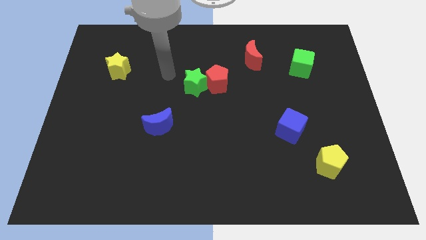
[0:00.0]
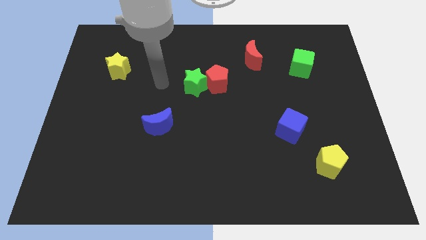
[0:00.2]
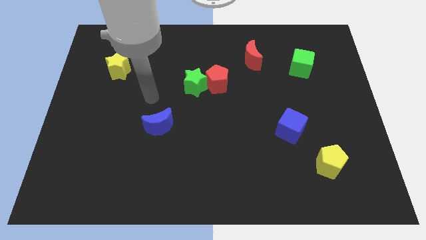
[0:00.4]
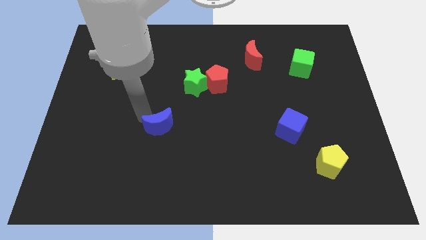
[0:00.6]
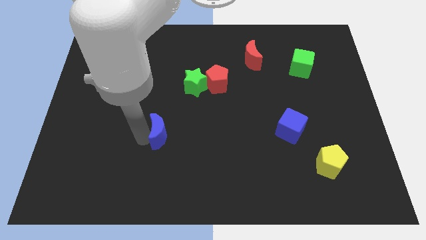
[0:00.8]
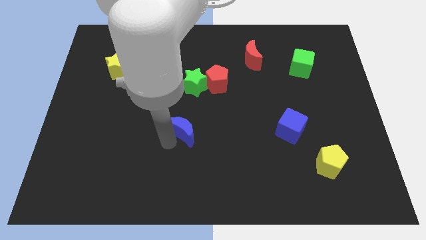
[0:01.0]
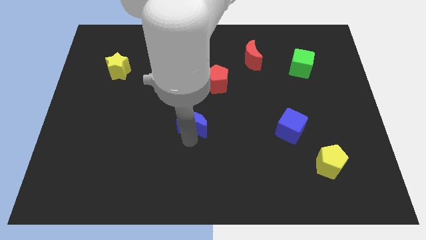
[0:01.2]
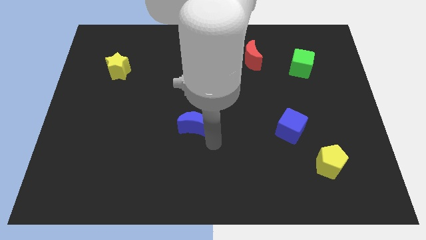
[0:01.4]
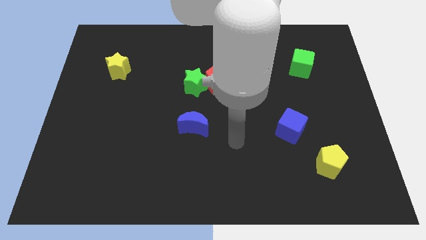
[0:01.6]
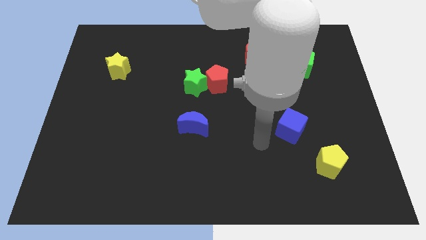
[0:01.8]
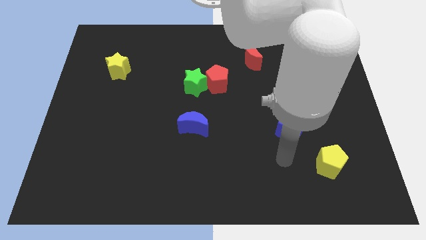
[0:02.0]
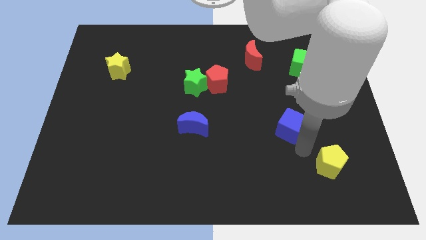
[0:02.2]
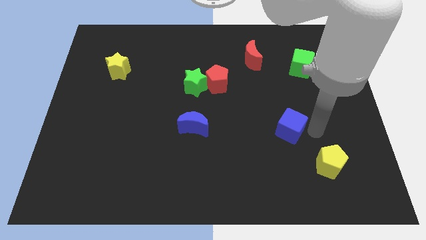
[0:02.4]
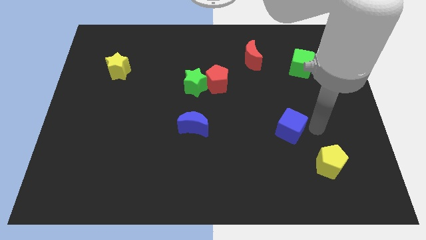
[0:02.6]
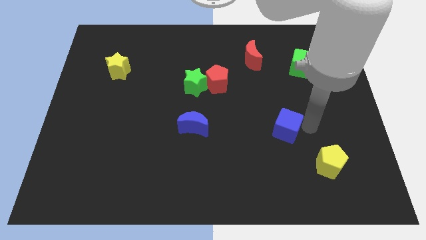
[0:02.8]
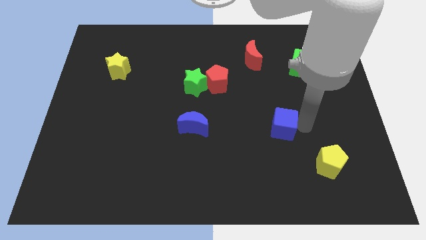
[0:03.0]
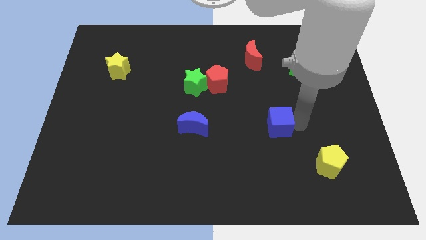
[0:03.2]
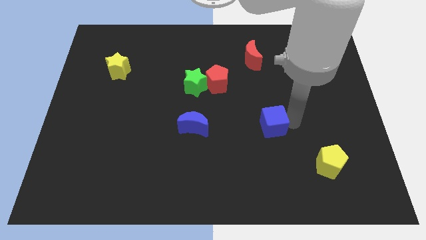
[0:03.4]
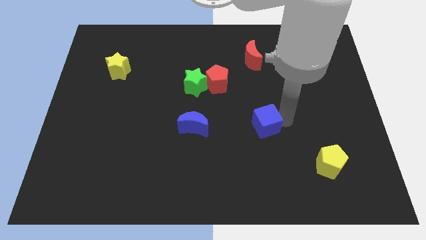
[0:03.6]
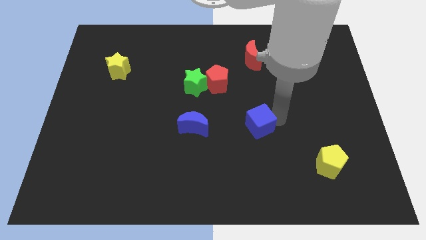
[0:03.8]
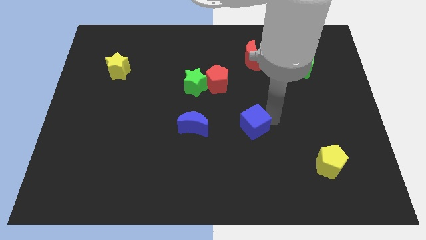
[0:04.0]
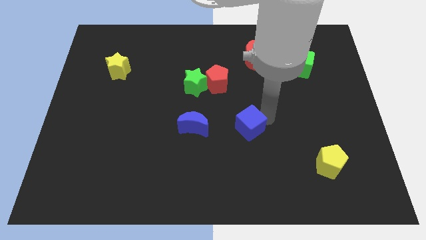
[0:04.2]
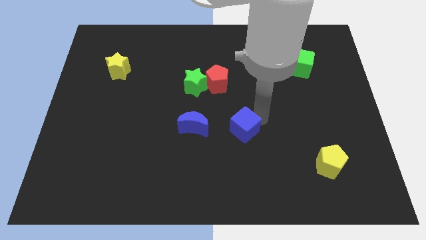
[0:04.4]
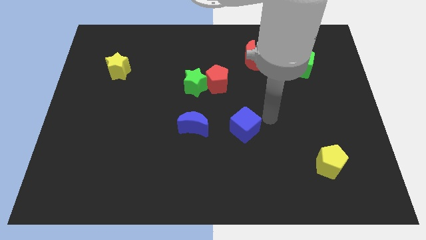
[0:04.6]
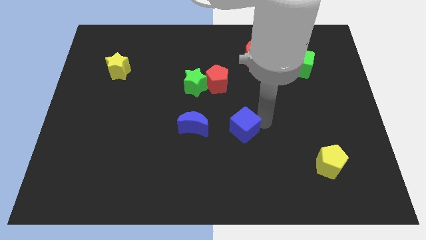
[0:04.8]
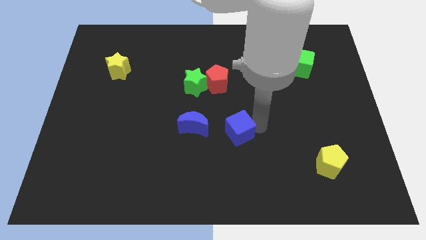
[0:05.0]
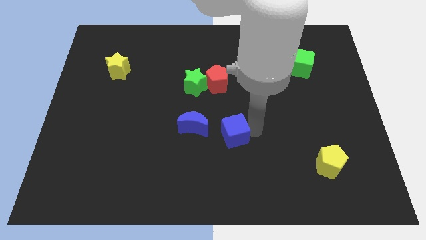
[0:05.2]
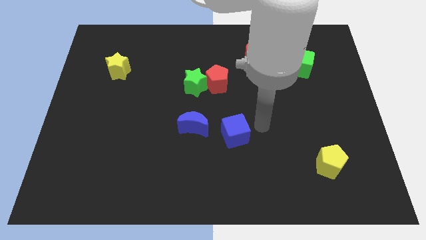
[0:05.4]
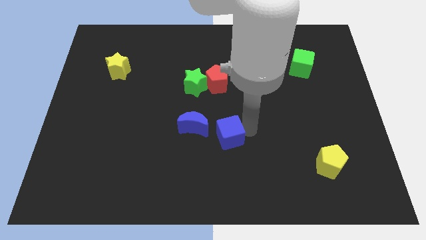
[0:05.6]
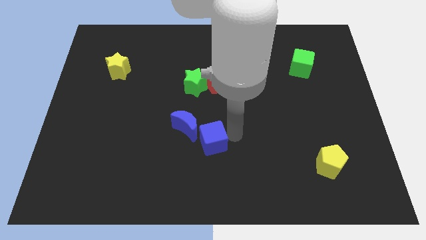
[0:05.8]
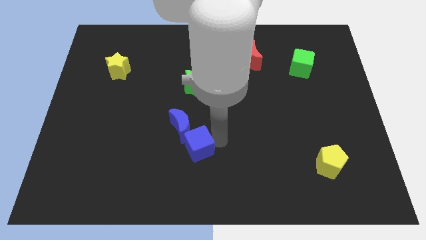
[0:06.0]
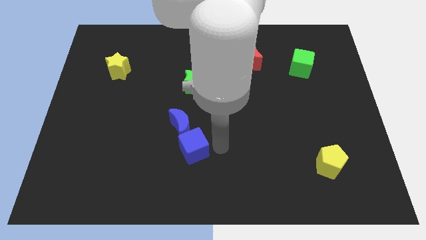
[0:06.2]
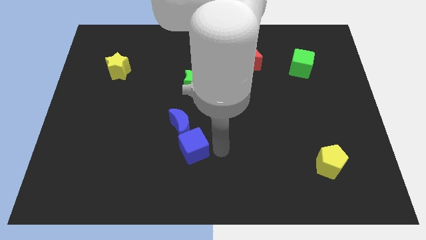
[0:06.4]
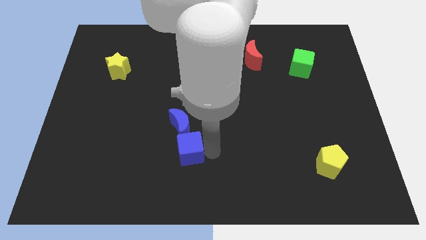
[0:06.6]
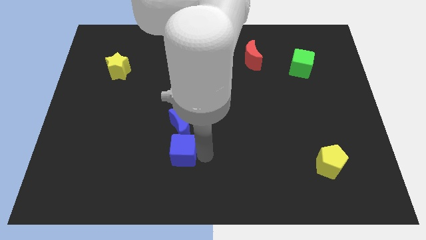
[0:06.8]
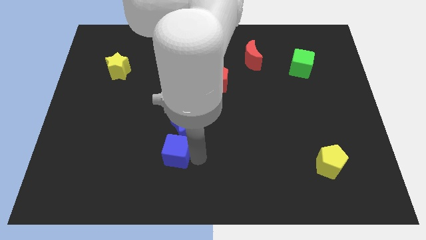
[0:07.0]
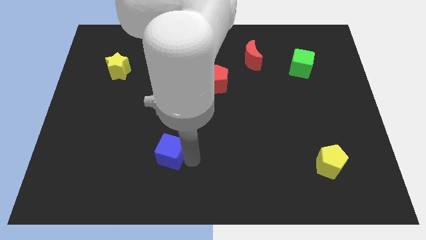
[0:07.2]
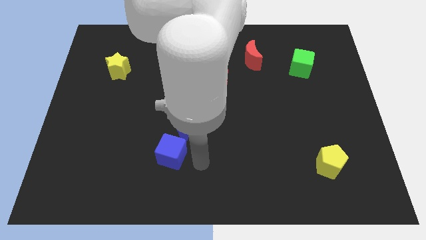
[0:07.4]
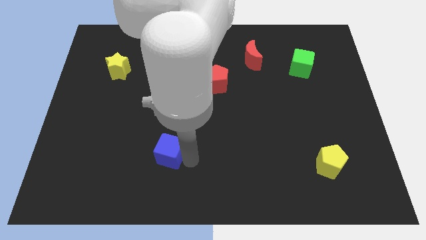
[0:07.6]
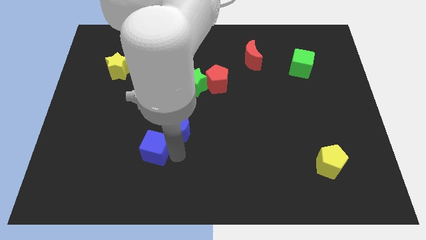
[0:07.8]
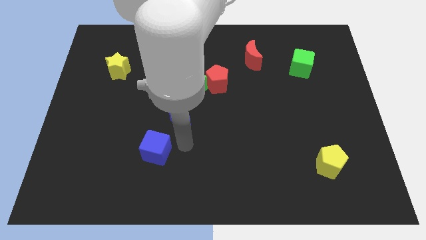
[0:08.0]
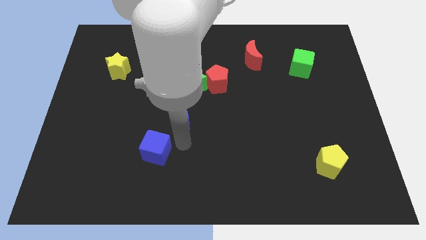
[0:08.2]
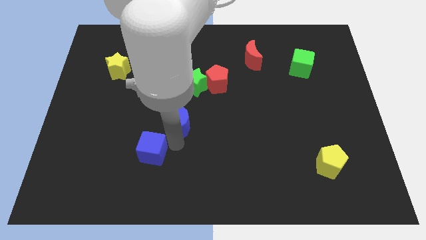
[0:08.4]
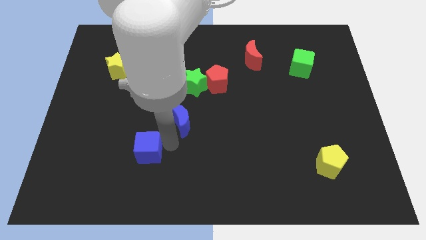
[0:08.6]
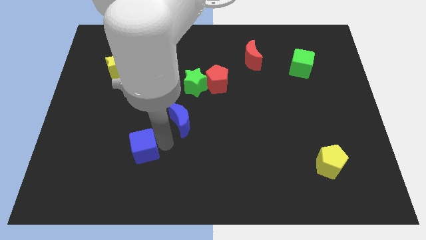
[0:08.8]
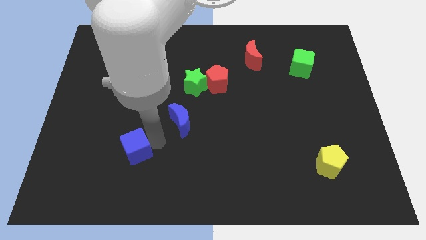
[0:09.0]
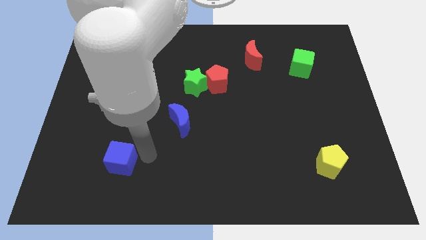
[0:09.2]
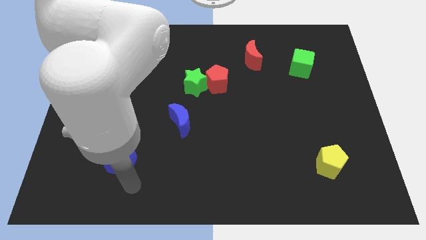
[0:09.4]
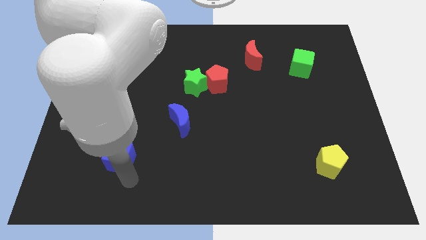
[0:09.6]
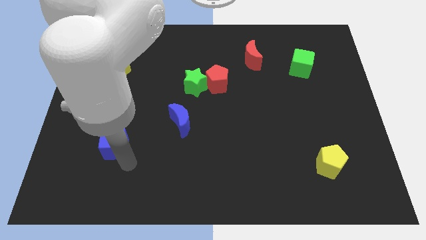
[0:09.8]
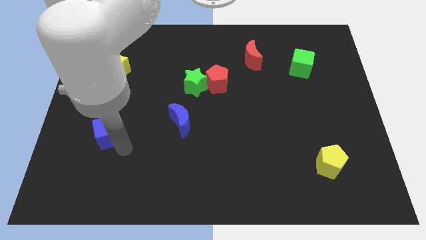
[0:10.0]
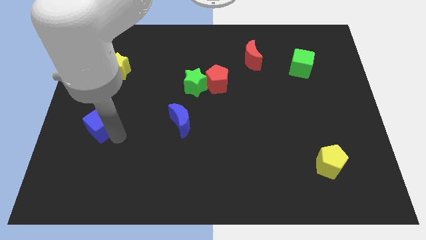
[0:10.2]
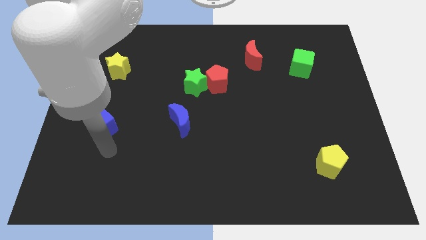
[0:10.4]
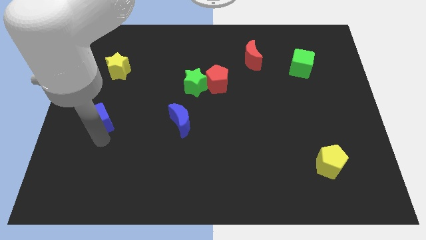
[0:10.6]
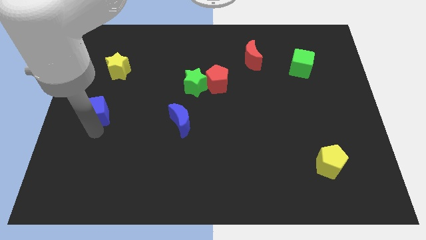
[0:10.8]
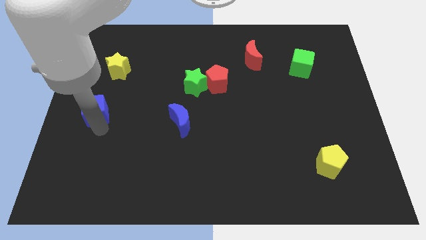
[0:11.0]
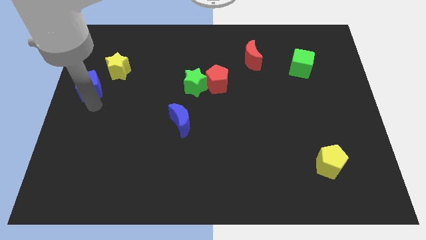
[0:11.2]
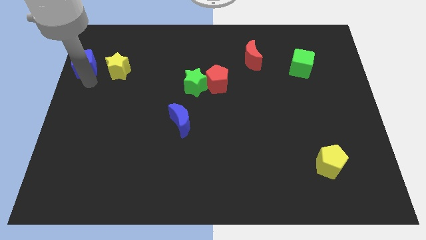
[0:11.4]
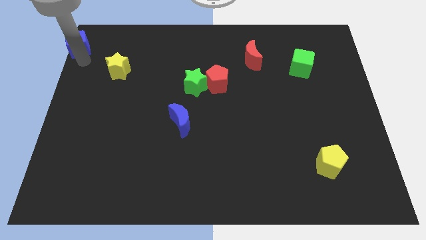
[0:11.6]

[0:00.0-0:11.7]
move the blue cube to the top left of the board

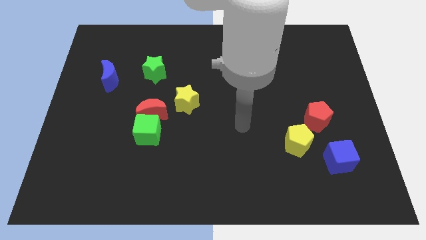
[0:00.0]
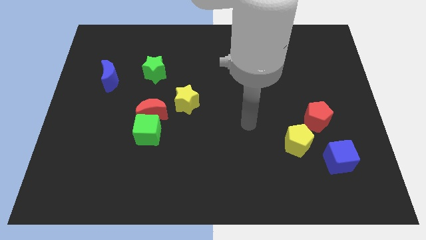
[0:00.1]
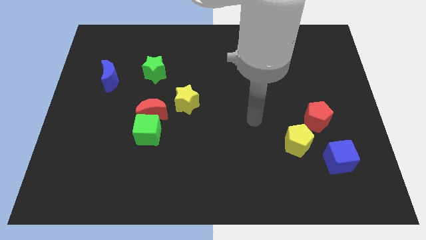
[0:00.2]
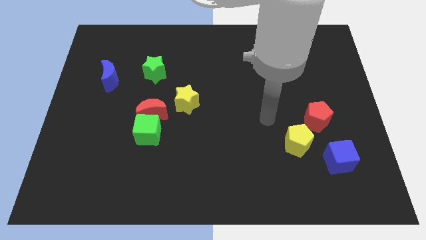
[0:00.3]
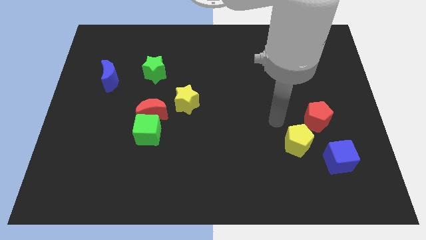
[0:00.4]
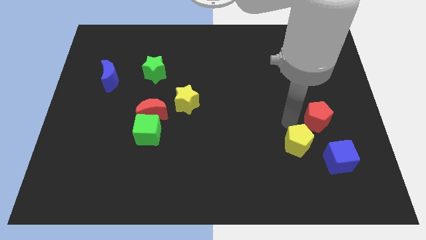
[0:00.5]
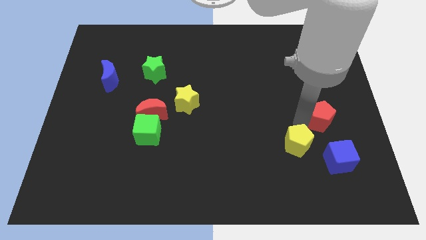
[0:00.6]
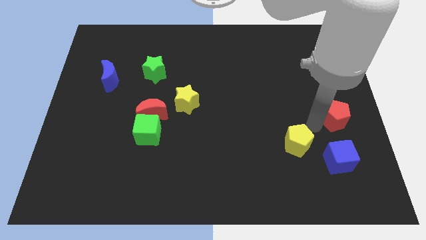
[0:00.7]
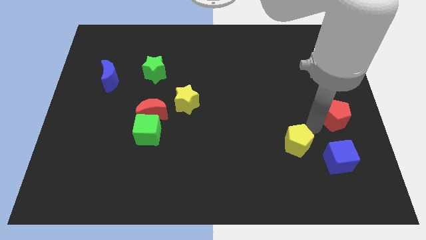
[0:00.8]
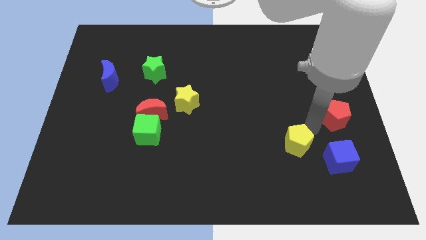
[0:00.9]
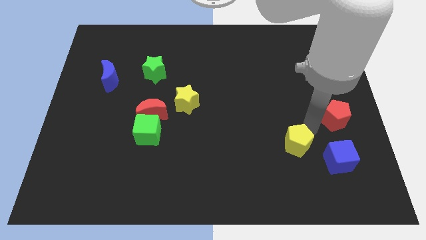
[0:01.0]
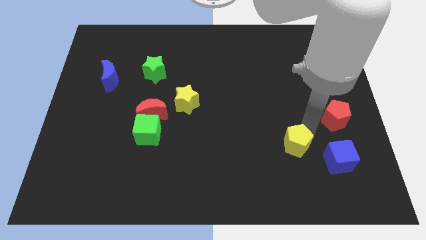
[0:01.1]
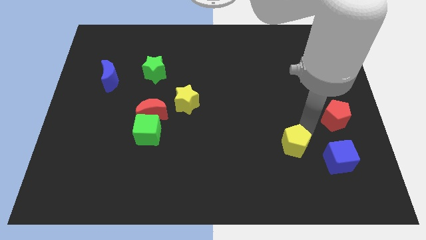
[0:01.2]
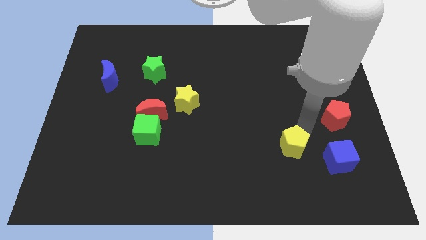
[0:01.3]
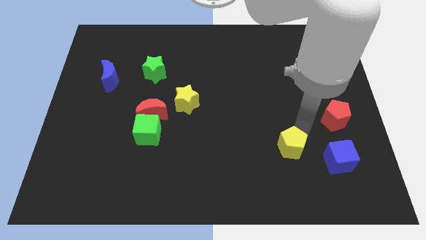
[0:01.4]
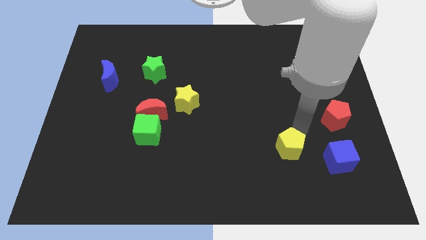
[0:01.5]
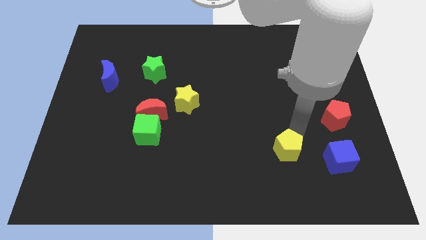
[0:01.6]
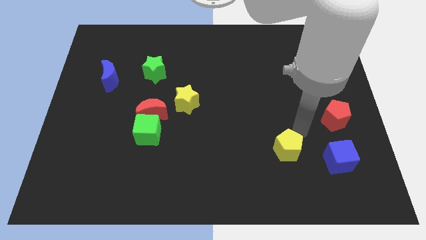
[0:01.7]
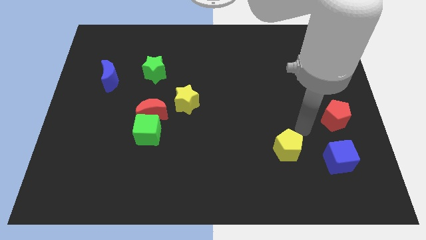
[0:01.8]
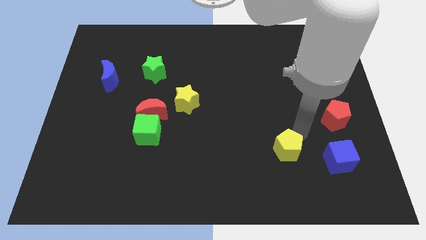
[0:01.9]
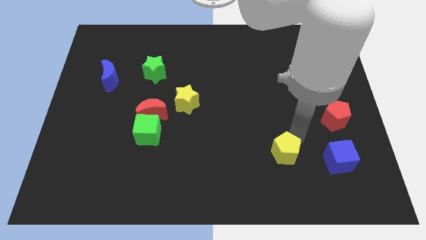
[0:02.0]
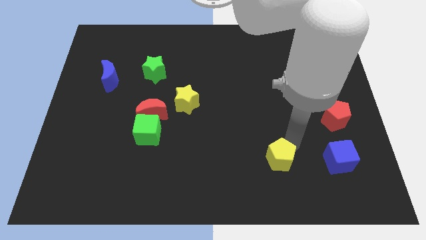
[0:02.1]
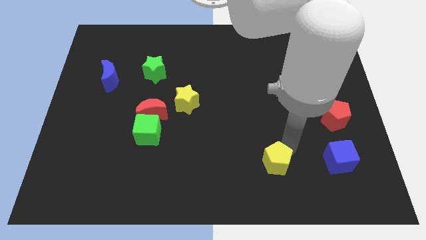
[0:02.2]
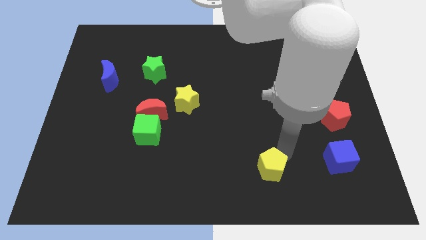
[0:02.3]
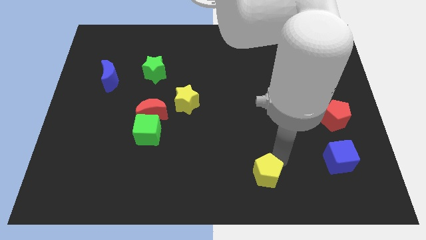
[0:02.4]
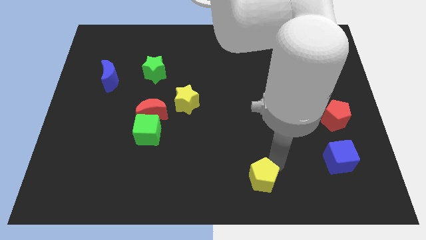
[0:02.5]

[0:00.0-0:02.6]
slide the yellow pentagon to the bottom
